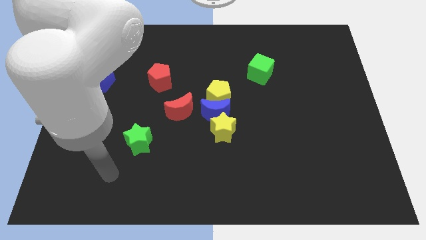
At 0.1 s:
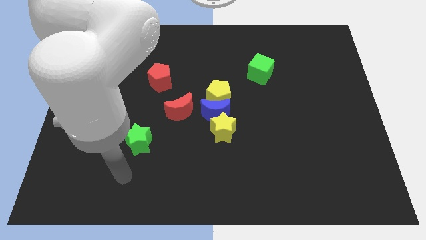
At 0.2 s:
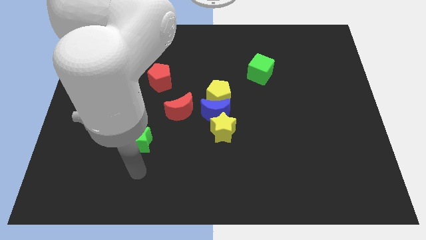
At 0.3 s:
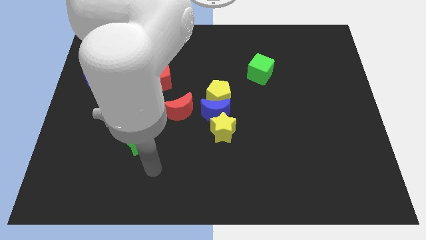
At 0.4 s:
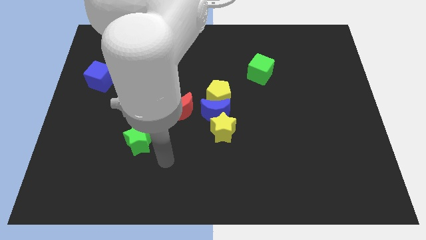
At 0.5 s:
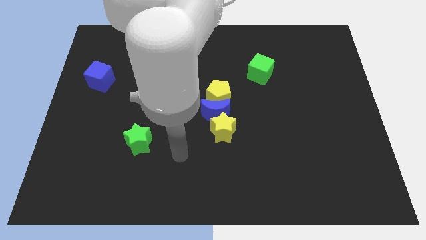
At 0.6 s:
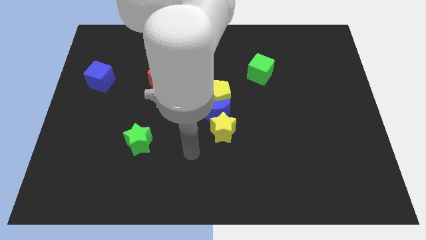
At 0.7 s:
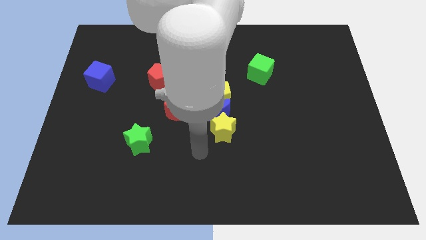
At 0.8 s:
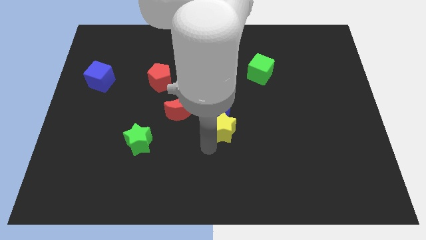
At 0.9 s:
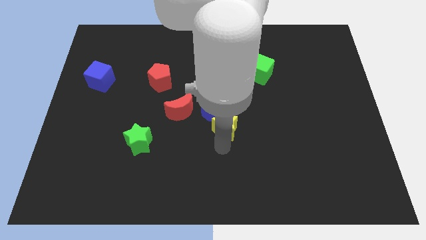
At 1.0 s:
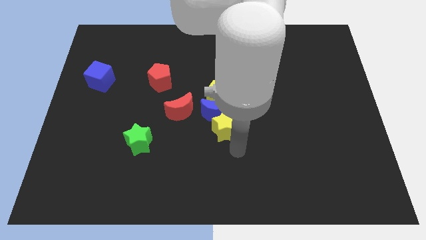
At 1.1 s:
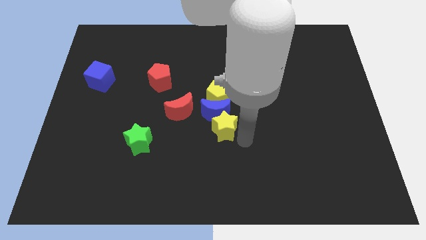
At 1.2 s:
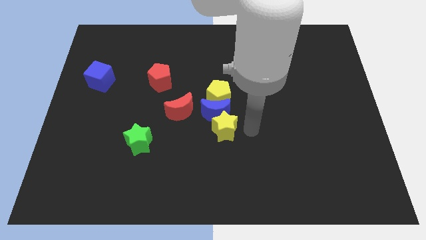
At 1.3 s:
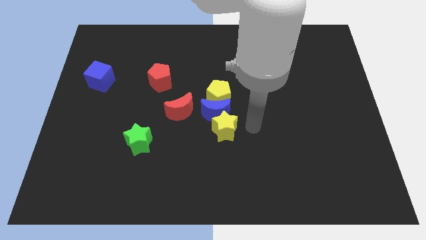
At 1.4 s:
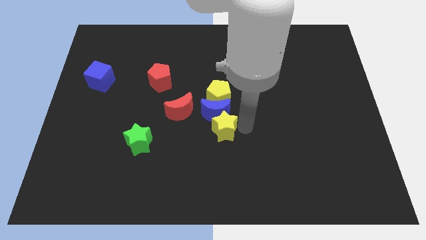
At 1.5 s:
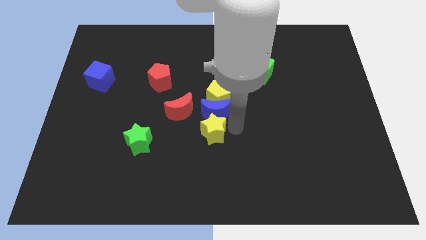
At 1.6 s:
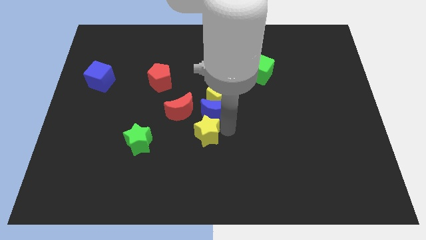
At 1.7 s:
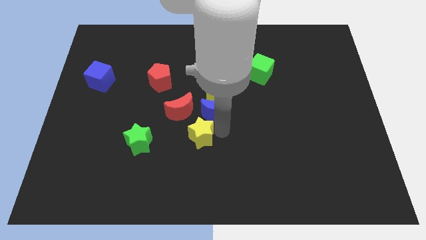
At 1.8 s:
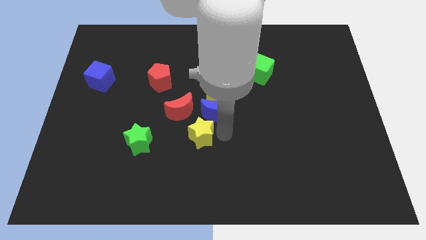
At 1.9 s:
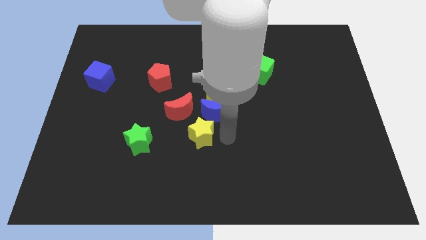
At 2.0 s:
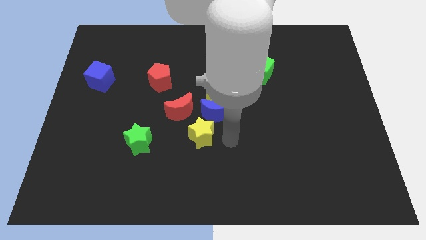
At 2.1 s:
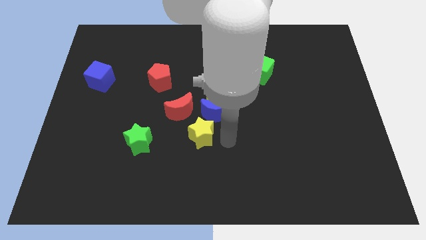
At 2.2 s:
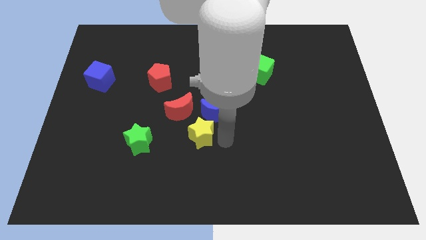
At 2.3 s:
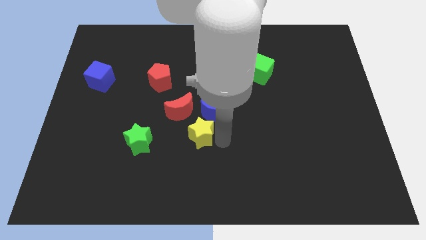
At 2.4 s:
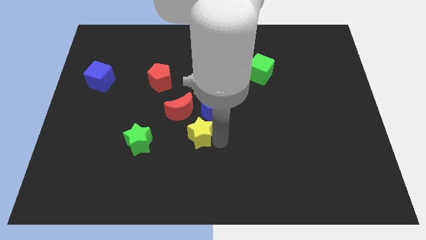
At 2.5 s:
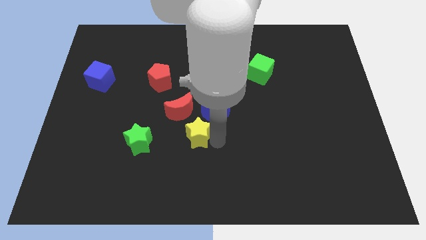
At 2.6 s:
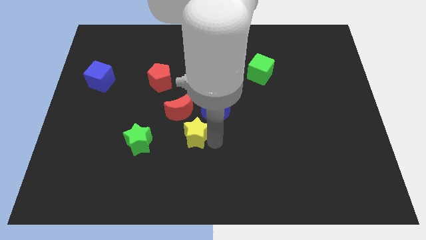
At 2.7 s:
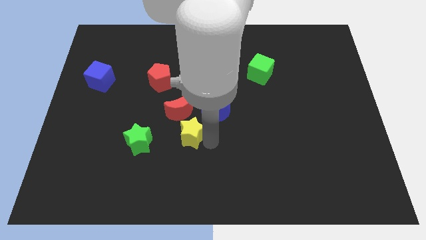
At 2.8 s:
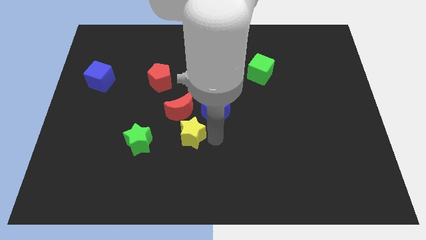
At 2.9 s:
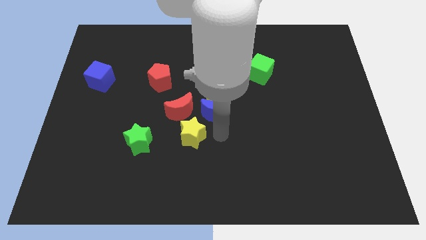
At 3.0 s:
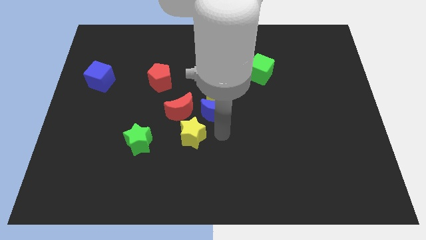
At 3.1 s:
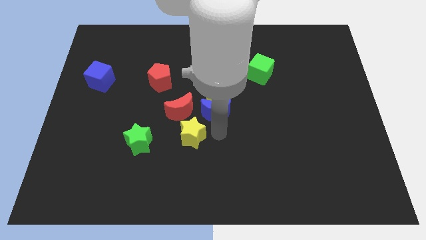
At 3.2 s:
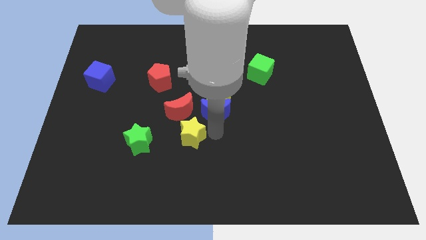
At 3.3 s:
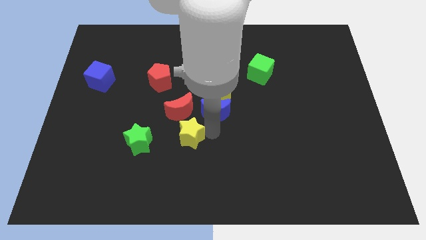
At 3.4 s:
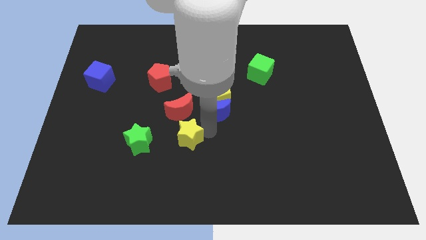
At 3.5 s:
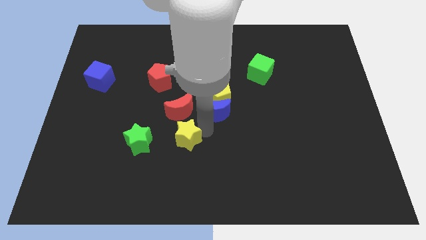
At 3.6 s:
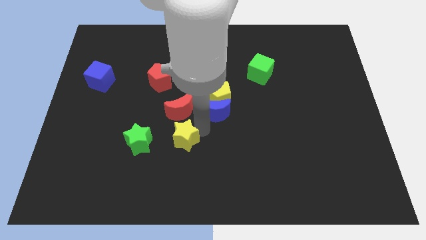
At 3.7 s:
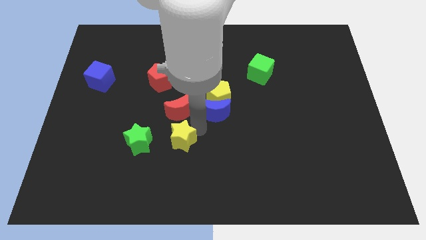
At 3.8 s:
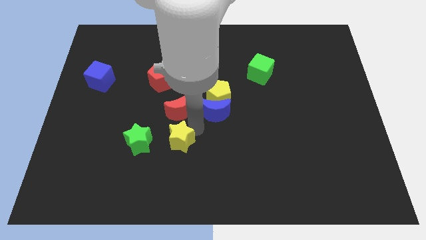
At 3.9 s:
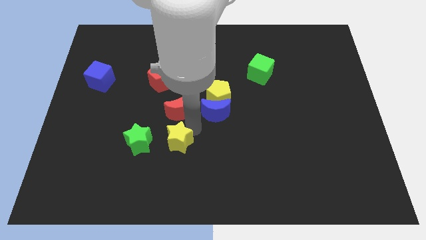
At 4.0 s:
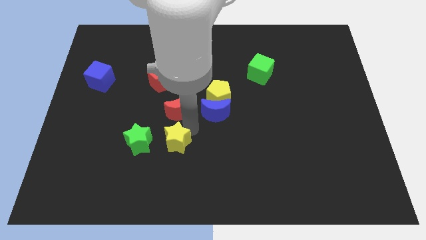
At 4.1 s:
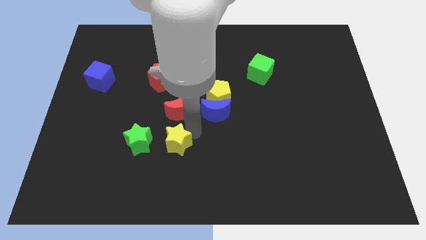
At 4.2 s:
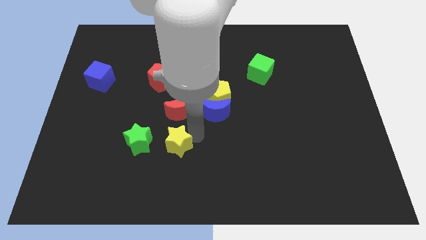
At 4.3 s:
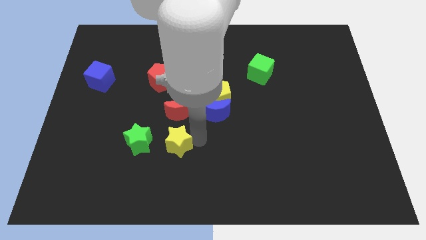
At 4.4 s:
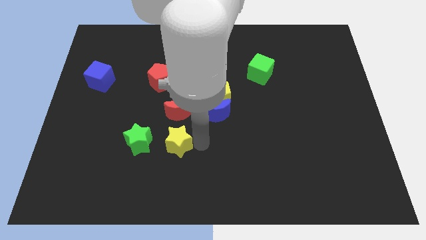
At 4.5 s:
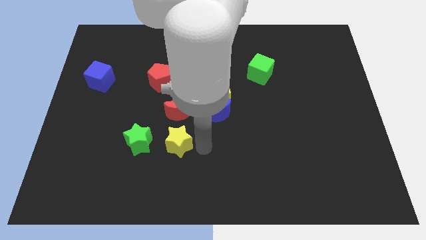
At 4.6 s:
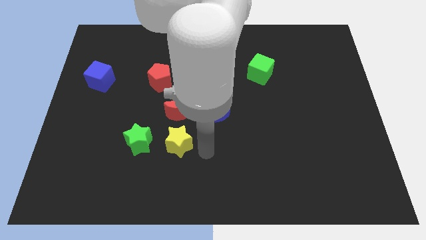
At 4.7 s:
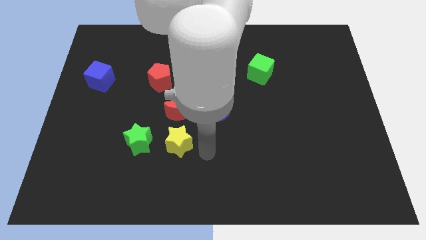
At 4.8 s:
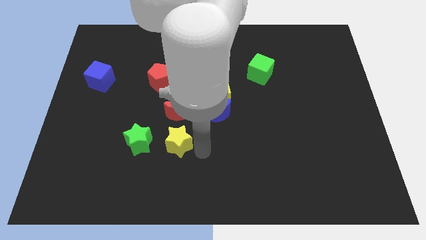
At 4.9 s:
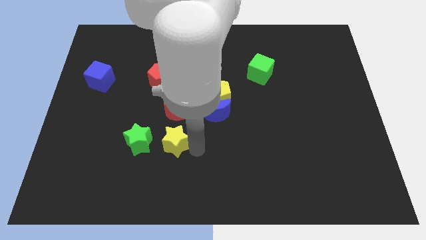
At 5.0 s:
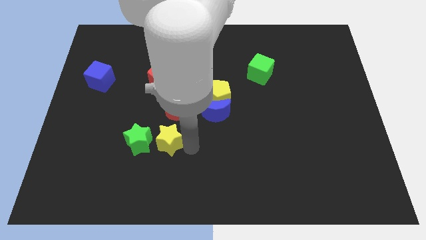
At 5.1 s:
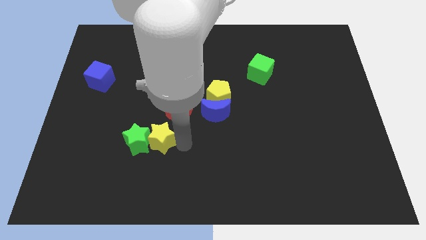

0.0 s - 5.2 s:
slide the yellow star to the green star

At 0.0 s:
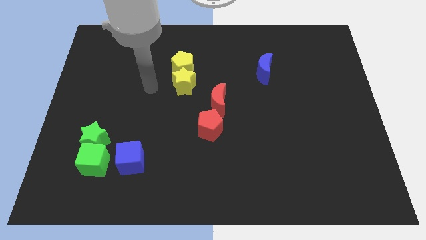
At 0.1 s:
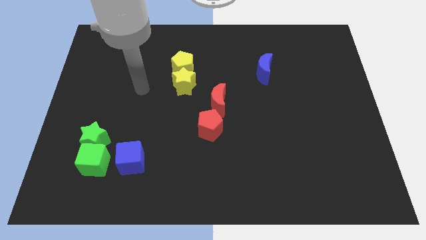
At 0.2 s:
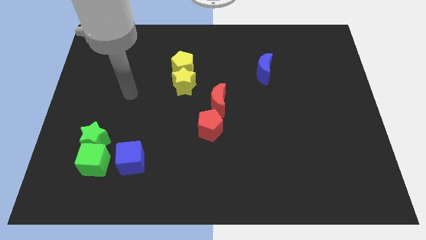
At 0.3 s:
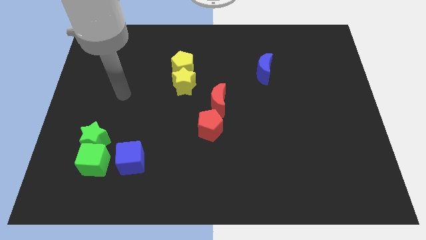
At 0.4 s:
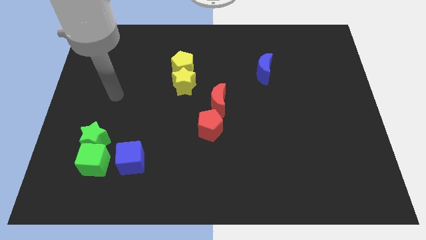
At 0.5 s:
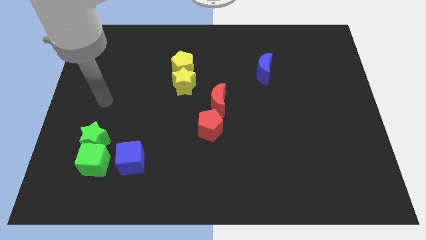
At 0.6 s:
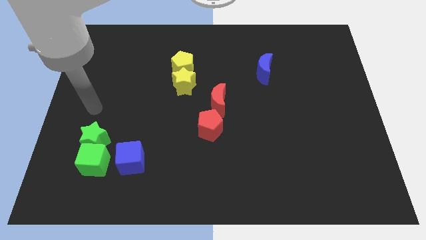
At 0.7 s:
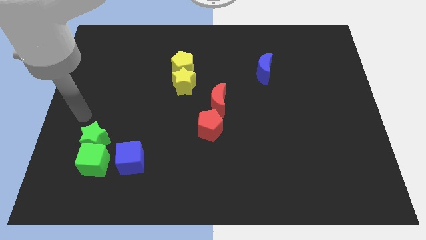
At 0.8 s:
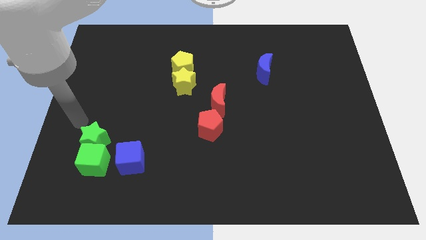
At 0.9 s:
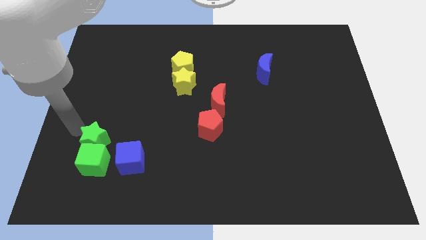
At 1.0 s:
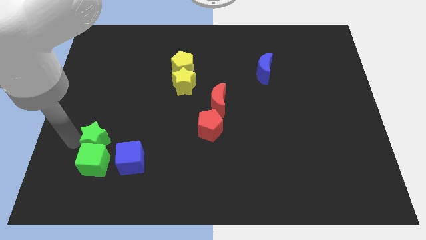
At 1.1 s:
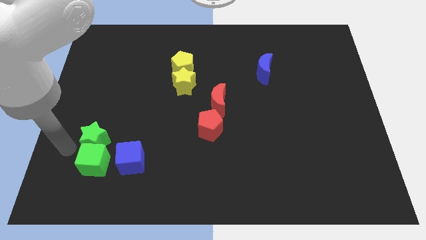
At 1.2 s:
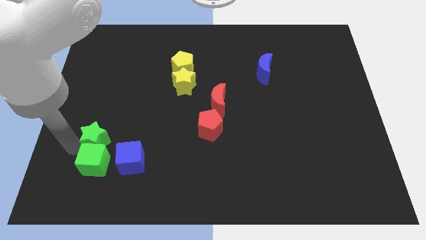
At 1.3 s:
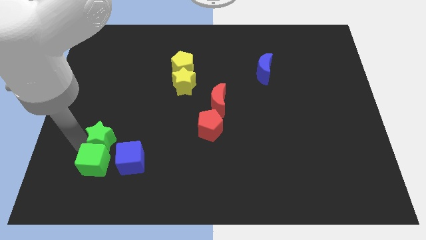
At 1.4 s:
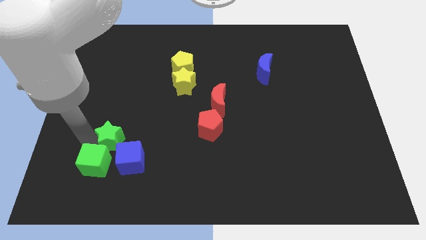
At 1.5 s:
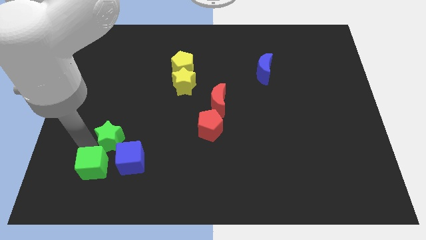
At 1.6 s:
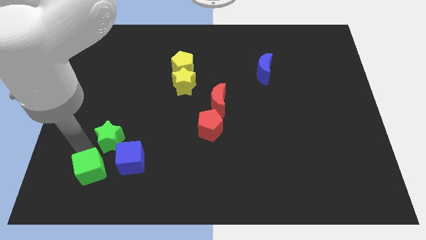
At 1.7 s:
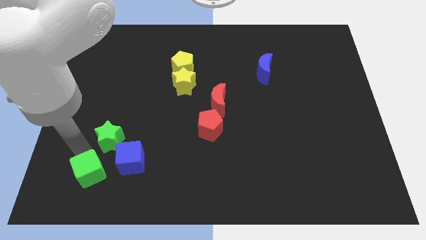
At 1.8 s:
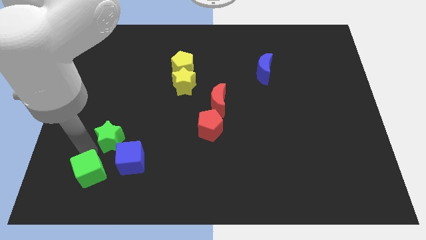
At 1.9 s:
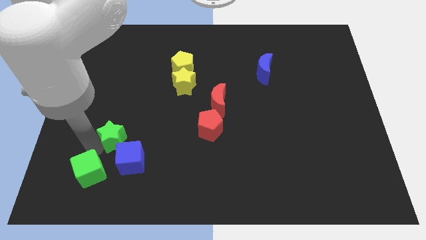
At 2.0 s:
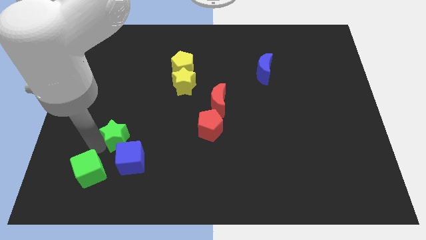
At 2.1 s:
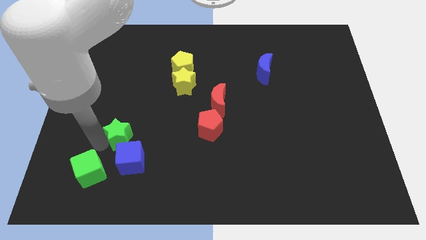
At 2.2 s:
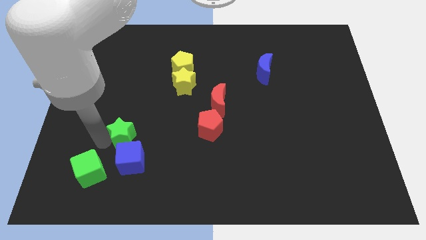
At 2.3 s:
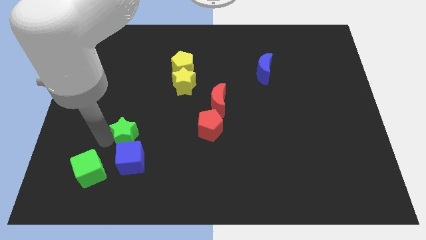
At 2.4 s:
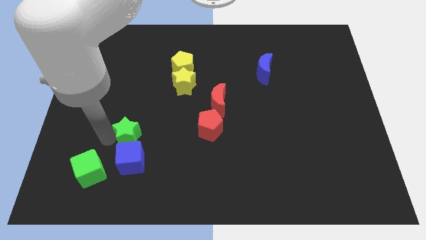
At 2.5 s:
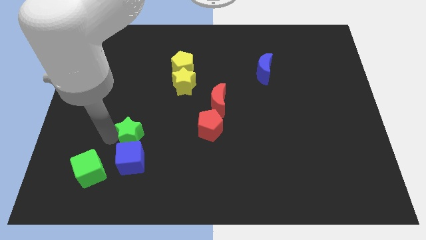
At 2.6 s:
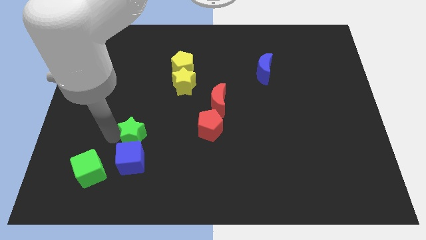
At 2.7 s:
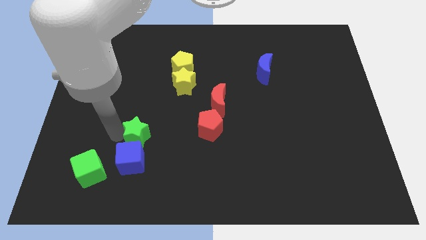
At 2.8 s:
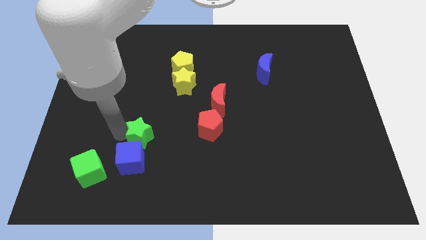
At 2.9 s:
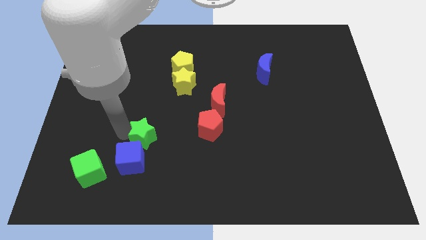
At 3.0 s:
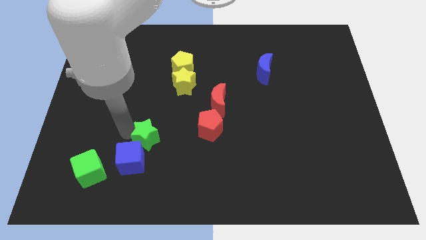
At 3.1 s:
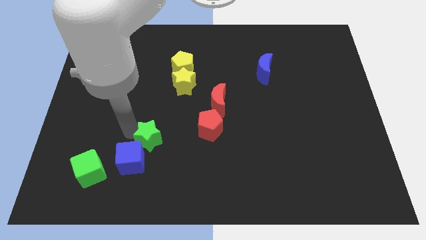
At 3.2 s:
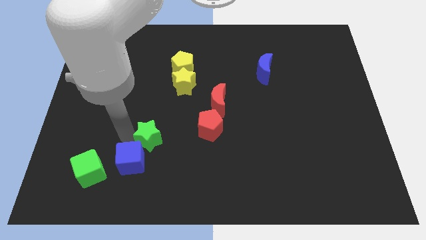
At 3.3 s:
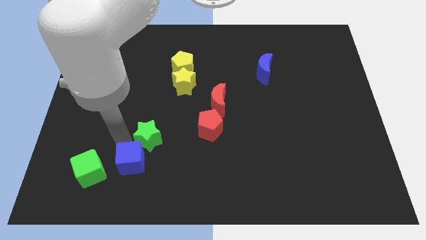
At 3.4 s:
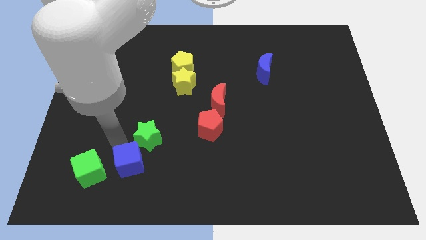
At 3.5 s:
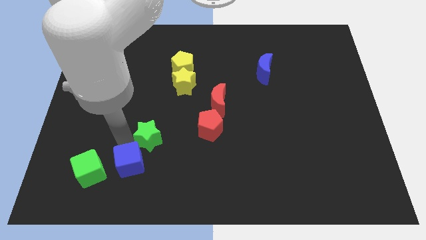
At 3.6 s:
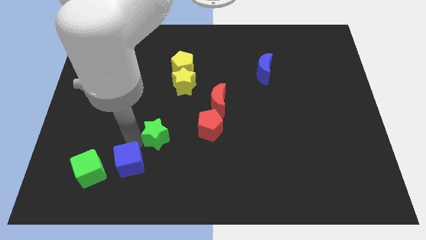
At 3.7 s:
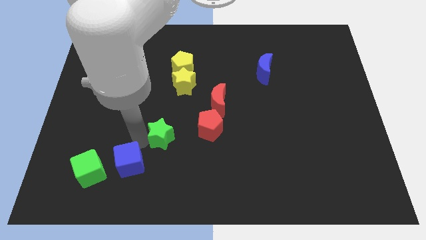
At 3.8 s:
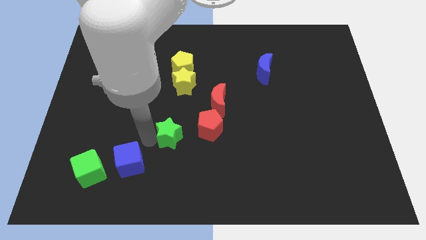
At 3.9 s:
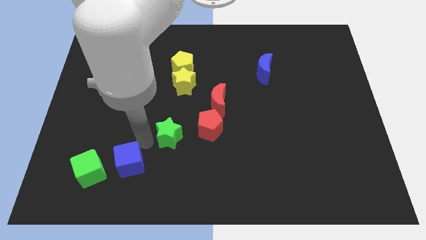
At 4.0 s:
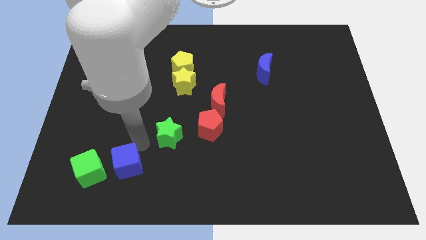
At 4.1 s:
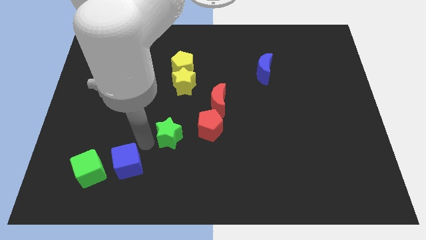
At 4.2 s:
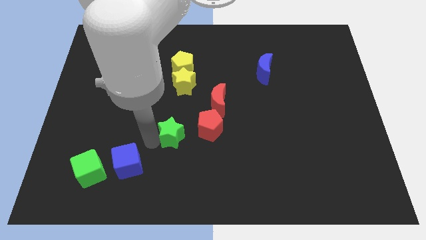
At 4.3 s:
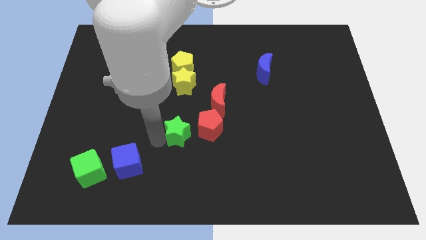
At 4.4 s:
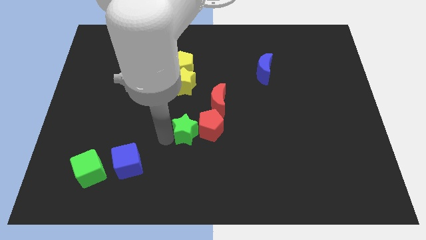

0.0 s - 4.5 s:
move the green star next to the red pentagon
